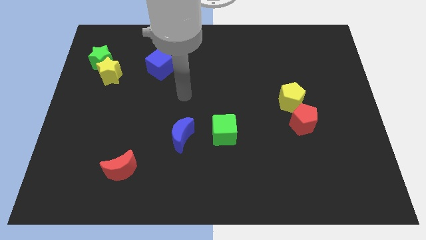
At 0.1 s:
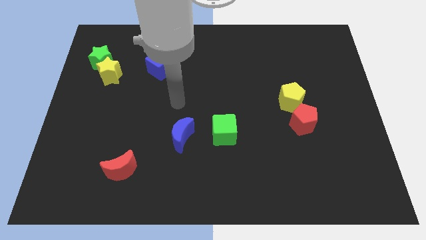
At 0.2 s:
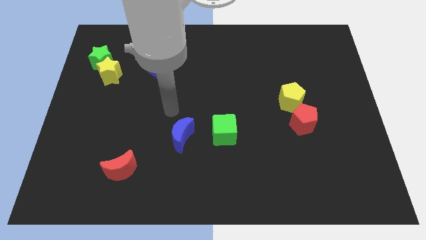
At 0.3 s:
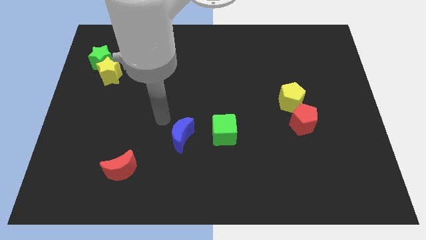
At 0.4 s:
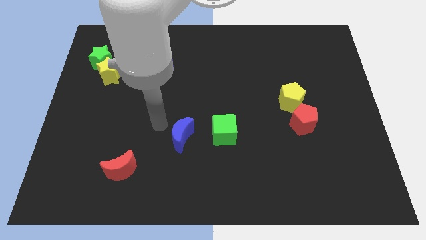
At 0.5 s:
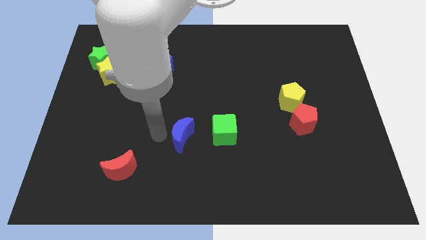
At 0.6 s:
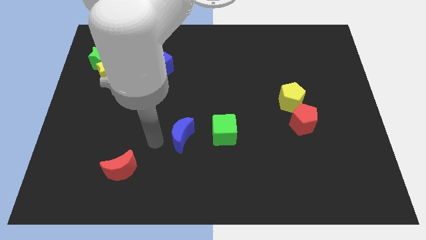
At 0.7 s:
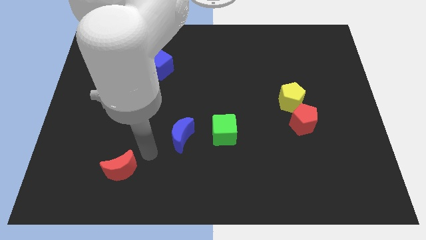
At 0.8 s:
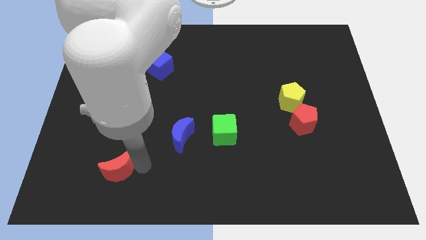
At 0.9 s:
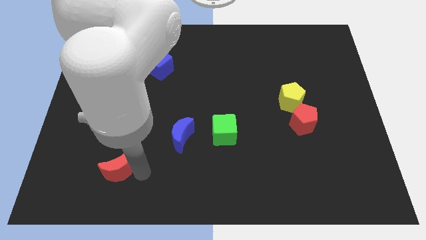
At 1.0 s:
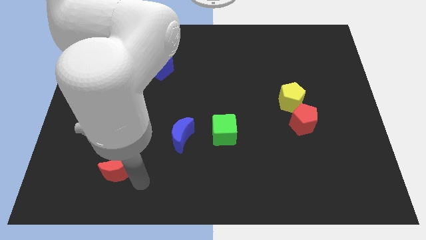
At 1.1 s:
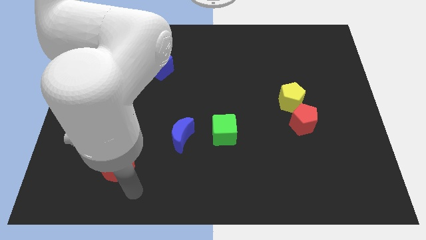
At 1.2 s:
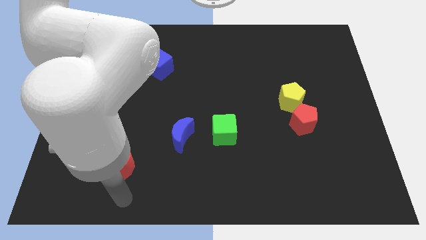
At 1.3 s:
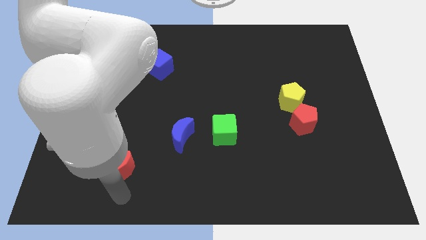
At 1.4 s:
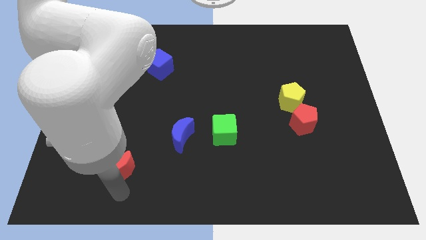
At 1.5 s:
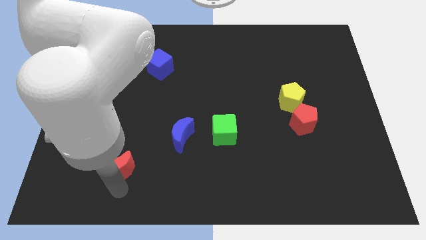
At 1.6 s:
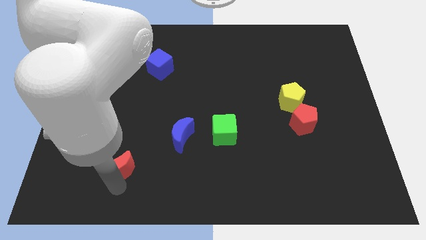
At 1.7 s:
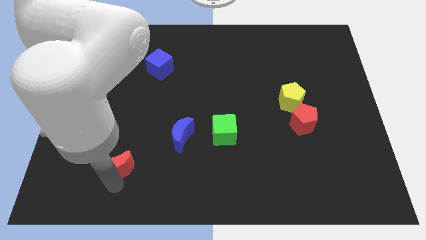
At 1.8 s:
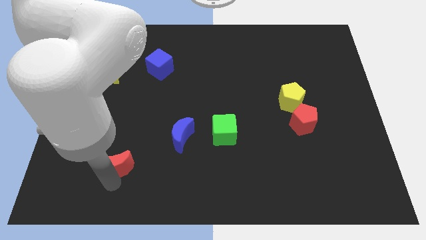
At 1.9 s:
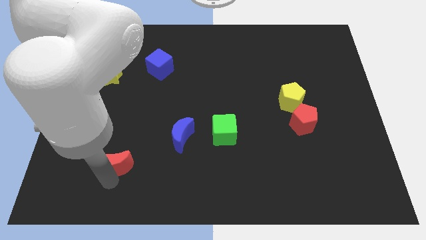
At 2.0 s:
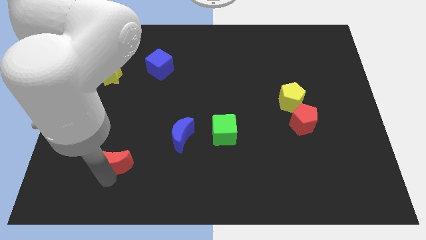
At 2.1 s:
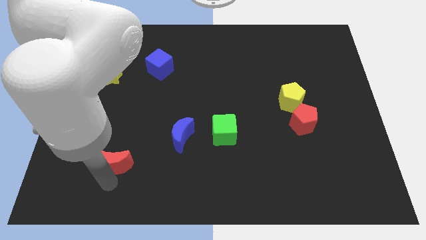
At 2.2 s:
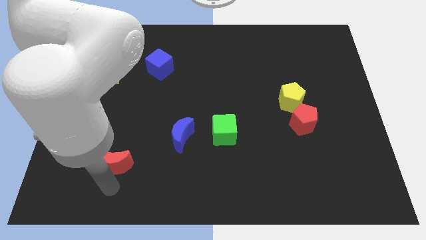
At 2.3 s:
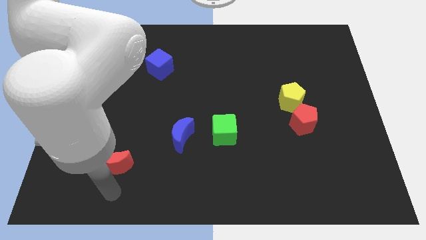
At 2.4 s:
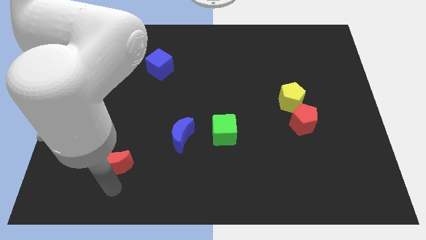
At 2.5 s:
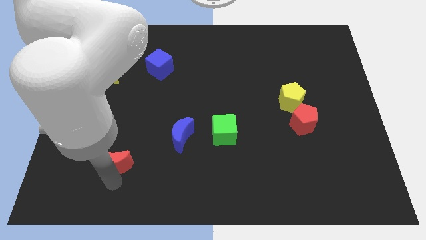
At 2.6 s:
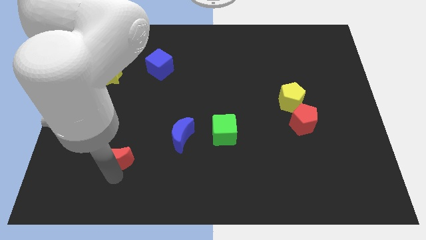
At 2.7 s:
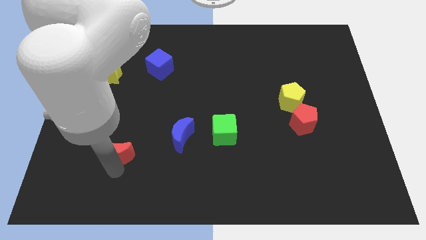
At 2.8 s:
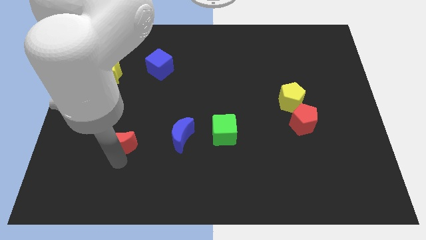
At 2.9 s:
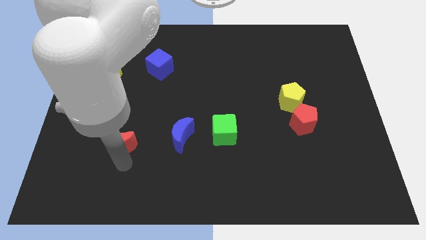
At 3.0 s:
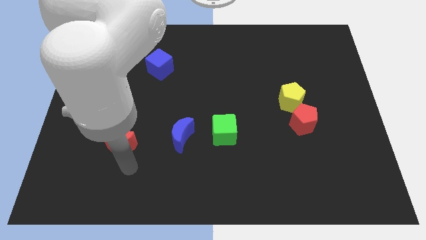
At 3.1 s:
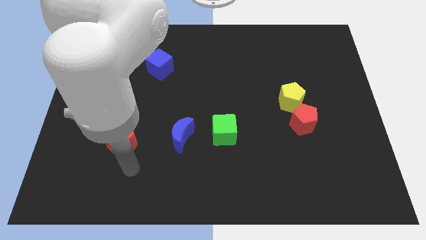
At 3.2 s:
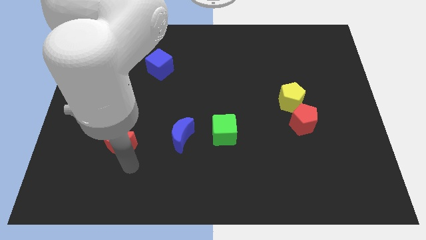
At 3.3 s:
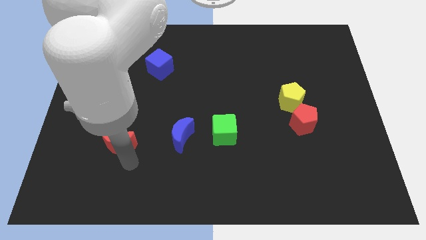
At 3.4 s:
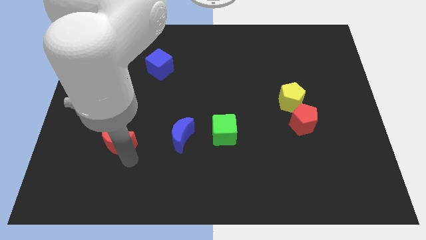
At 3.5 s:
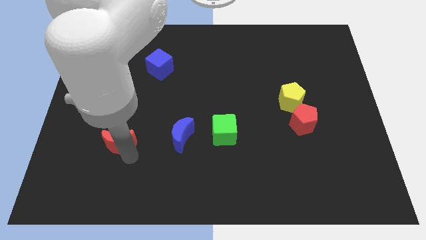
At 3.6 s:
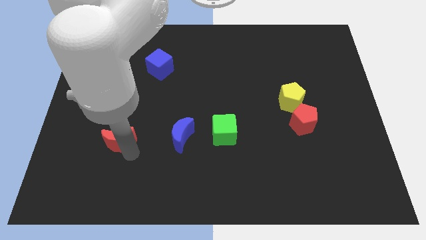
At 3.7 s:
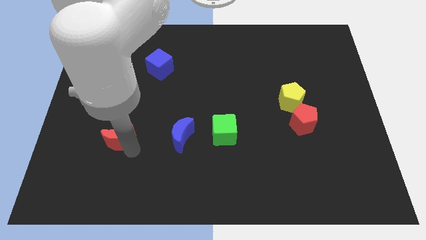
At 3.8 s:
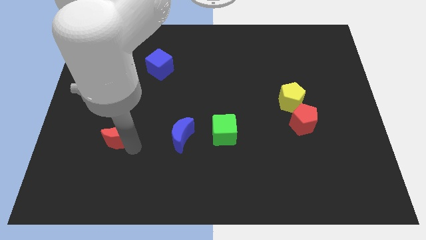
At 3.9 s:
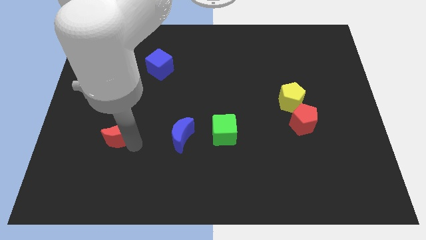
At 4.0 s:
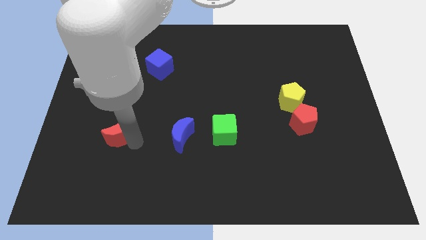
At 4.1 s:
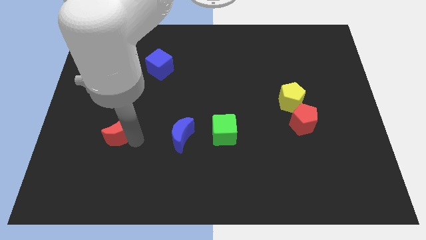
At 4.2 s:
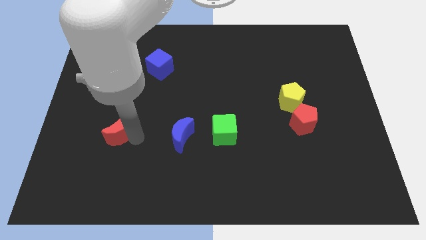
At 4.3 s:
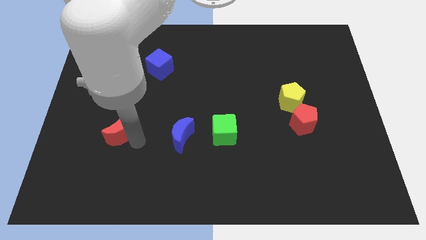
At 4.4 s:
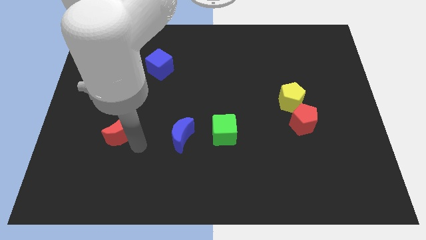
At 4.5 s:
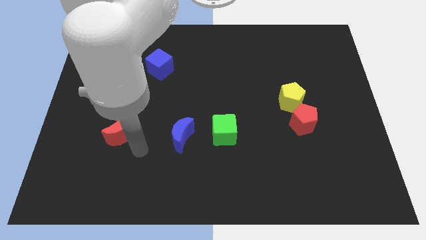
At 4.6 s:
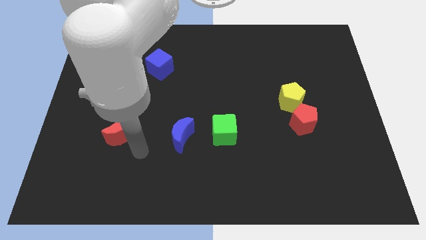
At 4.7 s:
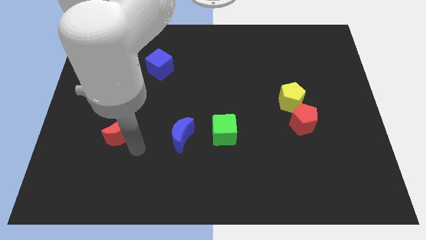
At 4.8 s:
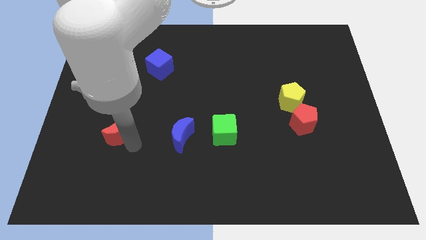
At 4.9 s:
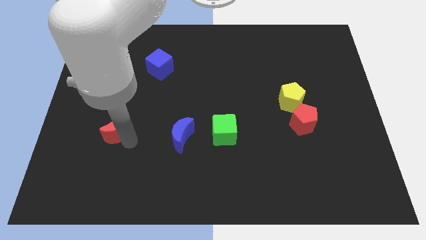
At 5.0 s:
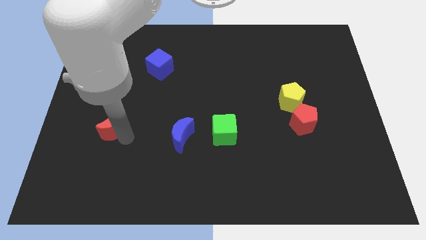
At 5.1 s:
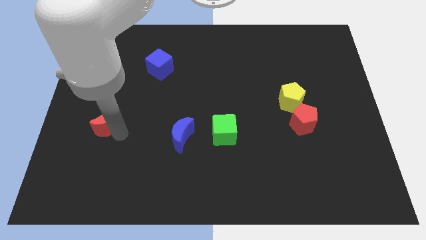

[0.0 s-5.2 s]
move the red moon below the yellow star

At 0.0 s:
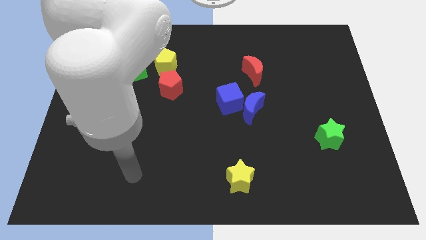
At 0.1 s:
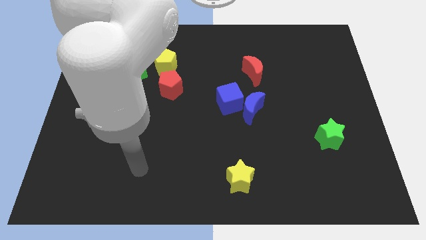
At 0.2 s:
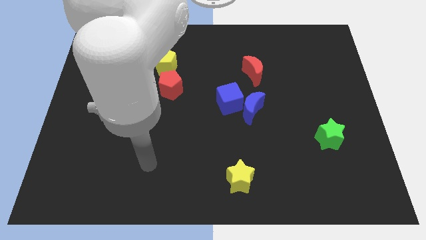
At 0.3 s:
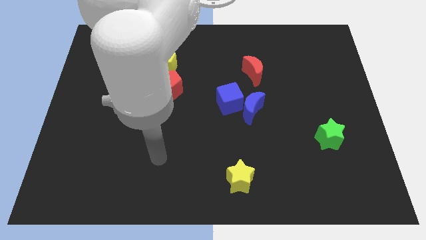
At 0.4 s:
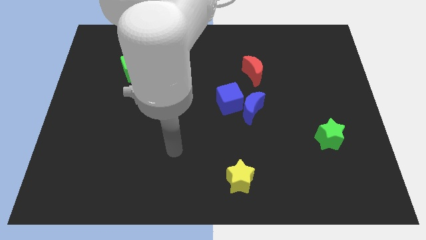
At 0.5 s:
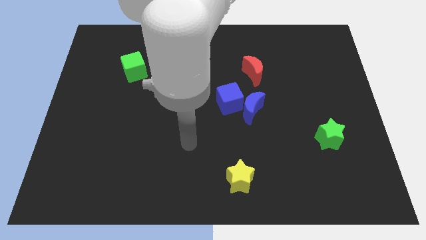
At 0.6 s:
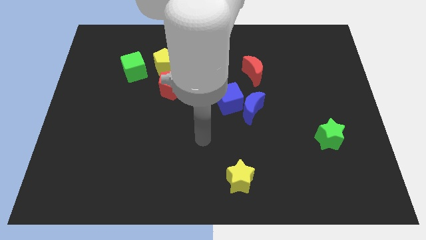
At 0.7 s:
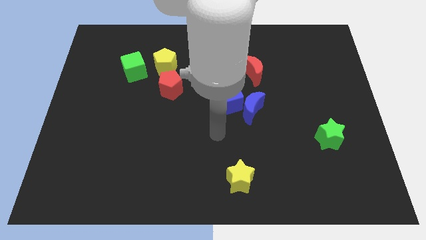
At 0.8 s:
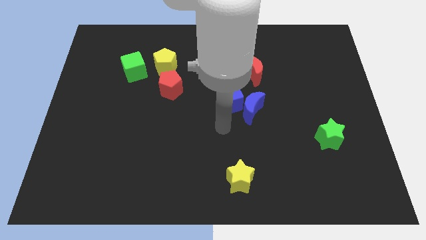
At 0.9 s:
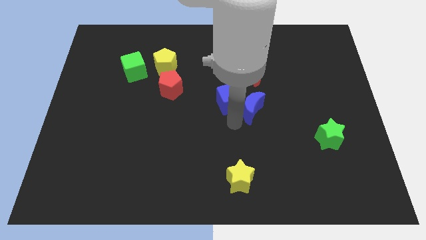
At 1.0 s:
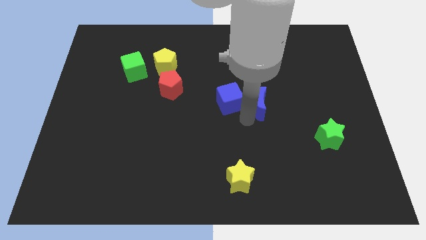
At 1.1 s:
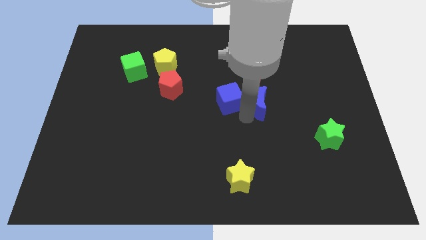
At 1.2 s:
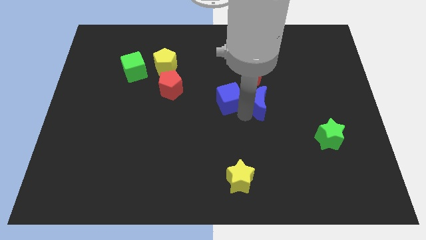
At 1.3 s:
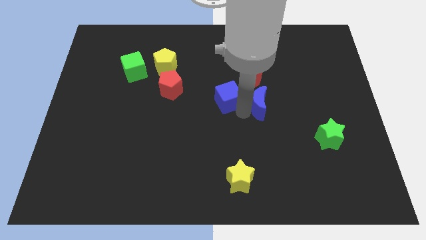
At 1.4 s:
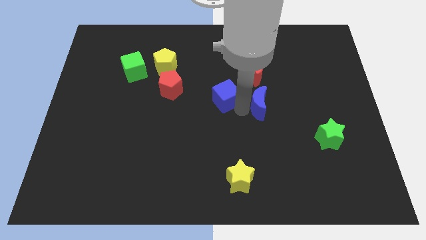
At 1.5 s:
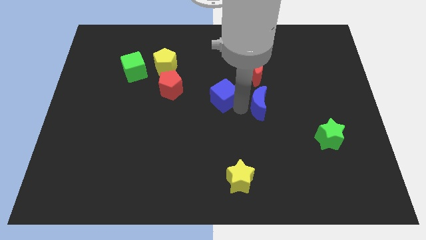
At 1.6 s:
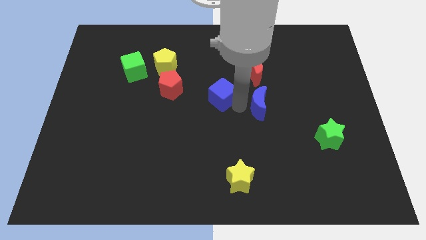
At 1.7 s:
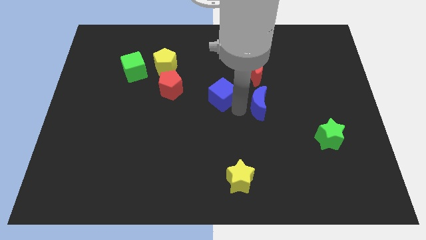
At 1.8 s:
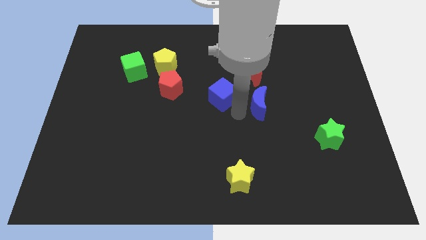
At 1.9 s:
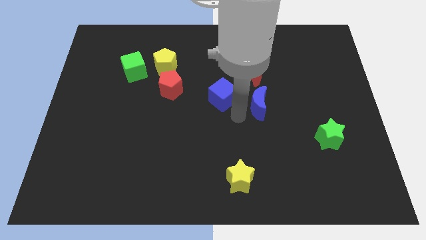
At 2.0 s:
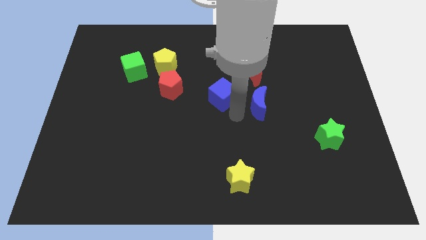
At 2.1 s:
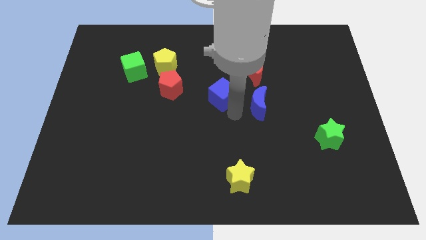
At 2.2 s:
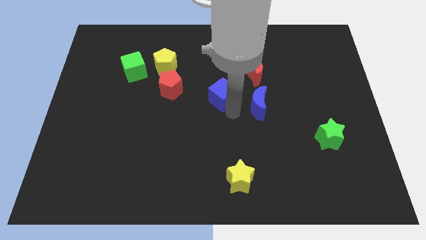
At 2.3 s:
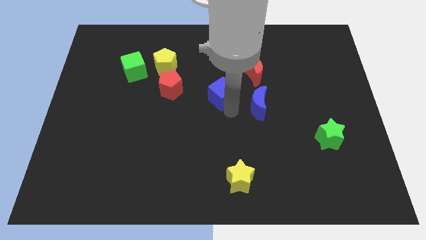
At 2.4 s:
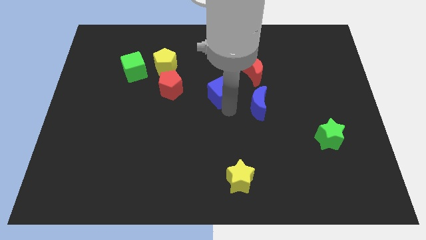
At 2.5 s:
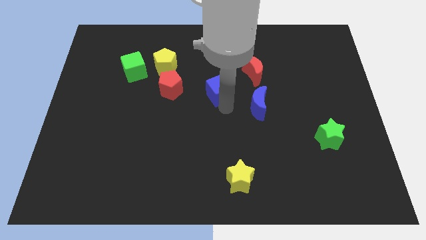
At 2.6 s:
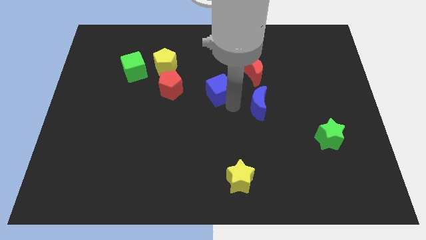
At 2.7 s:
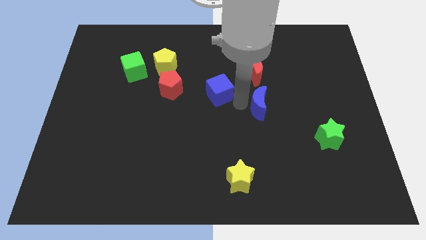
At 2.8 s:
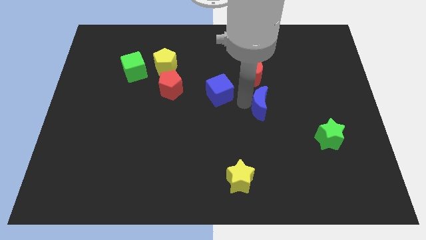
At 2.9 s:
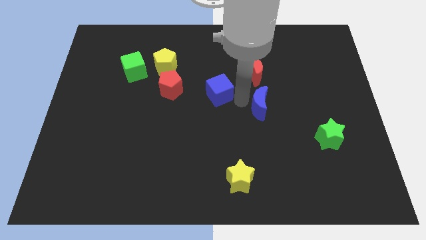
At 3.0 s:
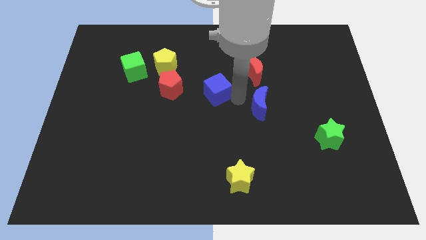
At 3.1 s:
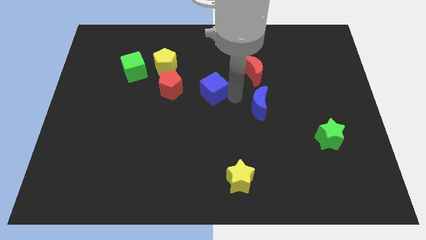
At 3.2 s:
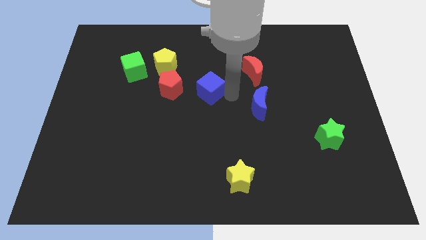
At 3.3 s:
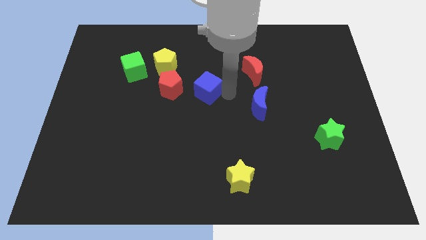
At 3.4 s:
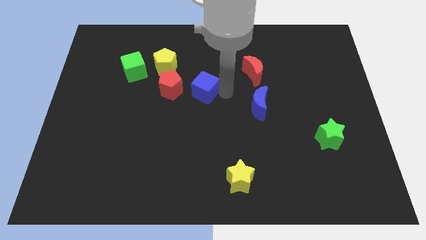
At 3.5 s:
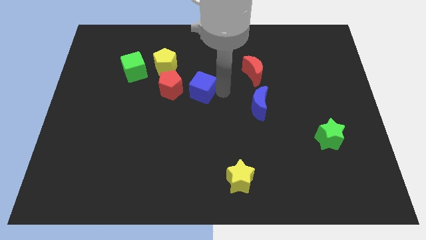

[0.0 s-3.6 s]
push the blue cube to the bottom right of the yellow pentagon
